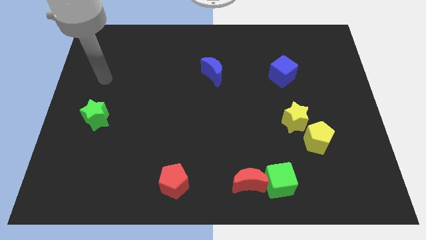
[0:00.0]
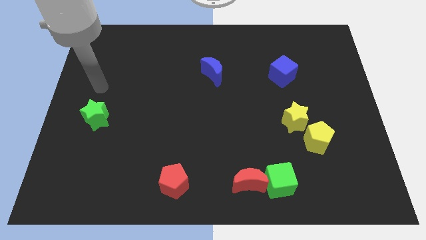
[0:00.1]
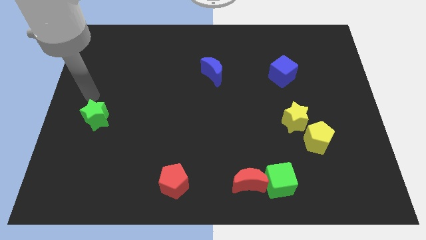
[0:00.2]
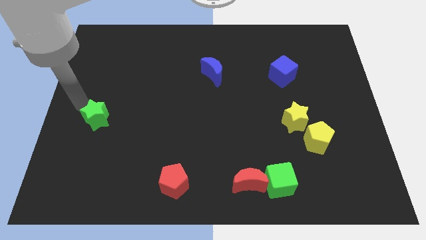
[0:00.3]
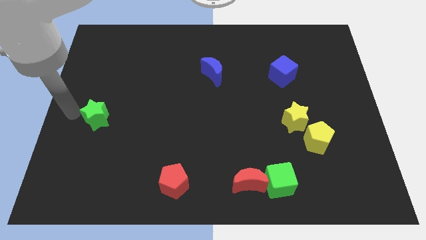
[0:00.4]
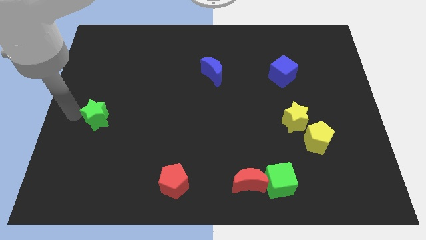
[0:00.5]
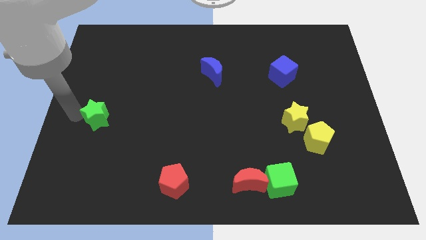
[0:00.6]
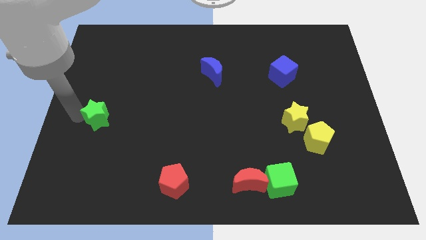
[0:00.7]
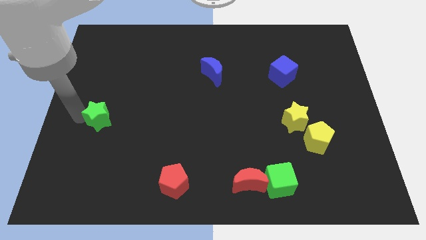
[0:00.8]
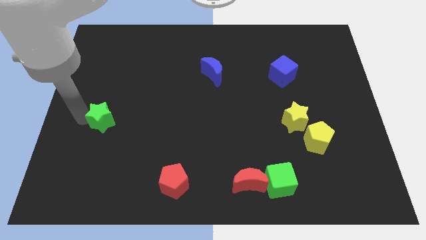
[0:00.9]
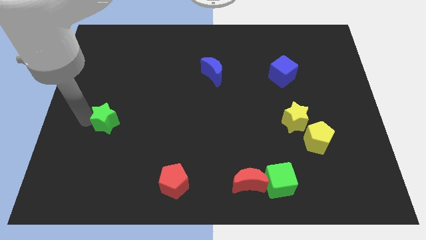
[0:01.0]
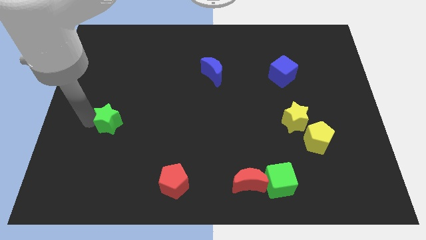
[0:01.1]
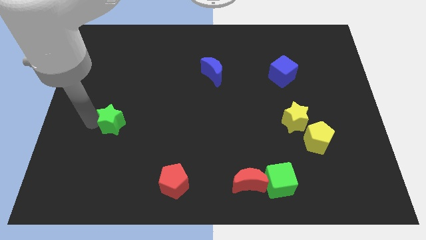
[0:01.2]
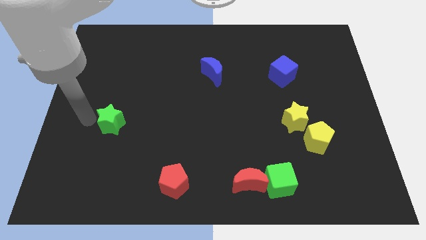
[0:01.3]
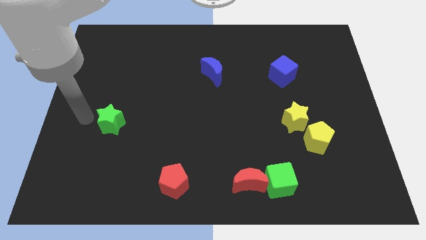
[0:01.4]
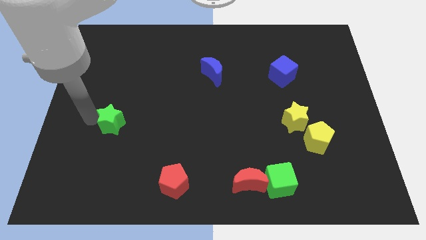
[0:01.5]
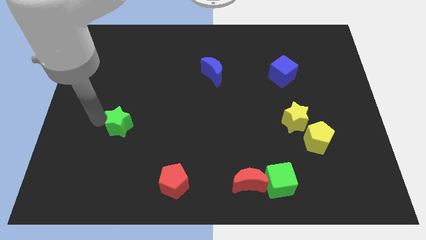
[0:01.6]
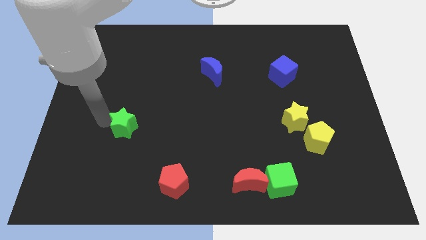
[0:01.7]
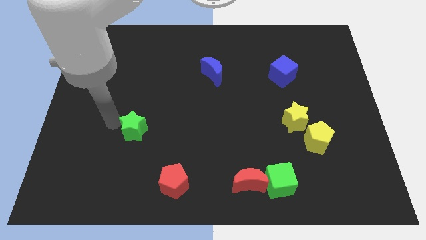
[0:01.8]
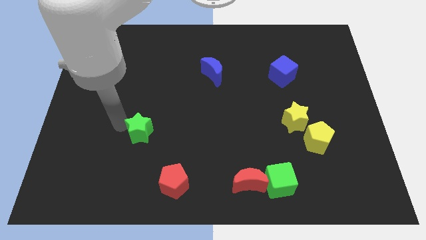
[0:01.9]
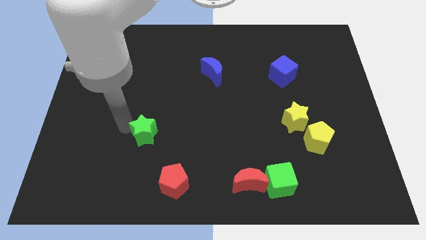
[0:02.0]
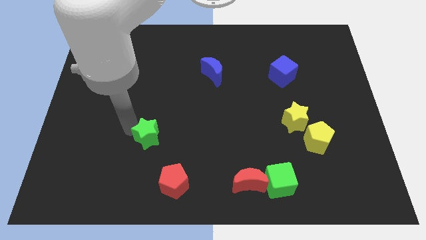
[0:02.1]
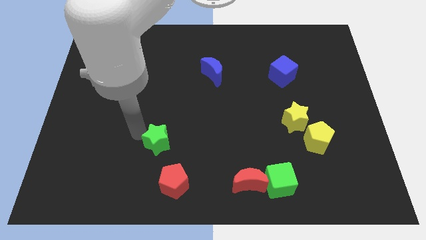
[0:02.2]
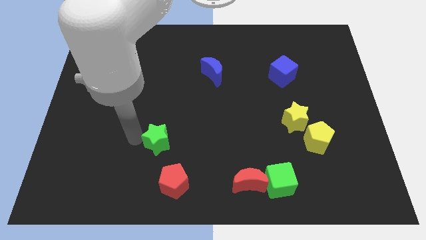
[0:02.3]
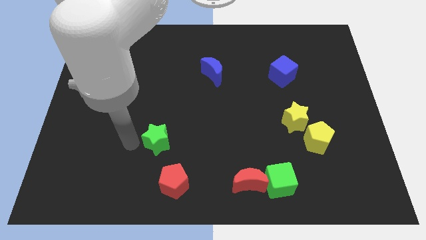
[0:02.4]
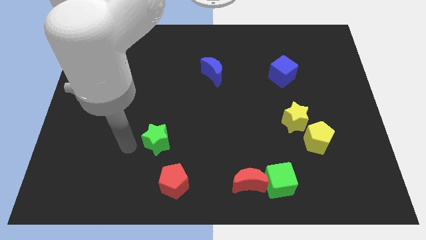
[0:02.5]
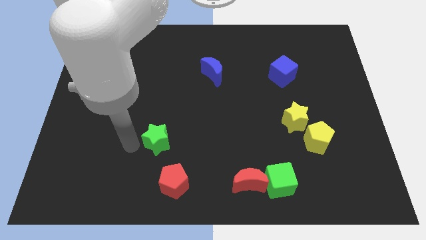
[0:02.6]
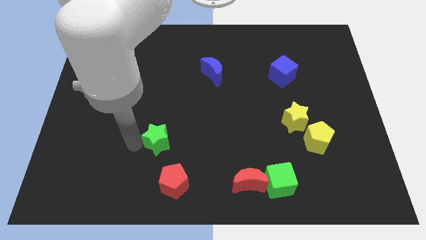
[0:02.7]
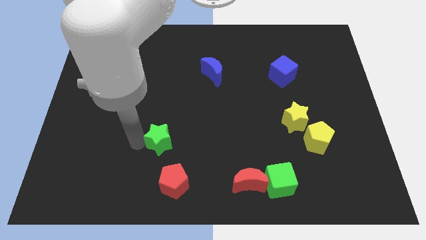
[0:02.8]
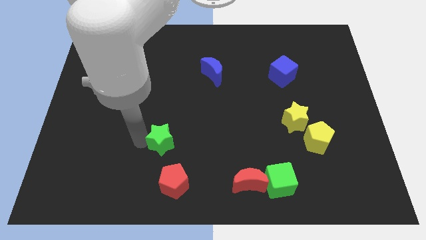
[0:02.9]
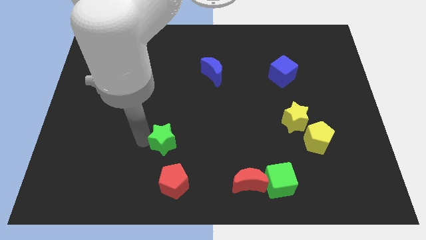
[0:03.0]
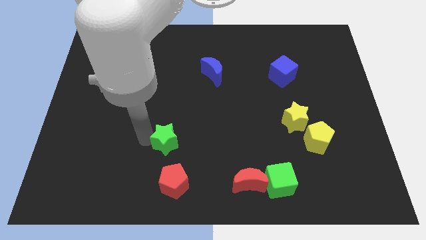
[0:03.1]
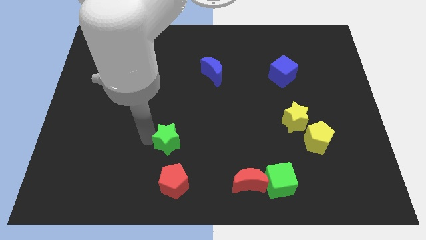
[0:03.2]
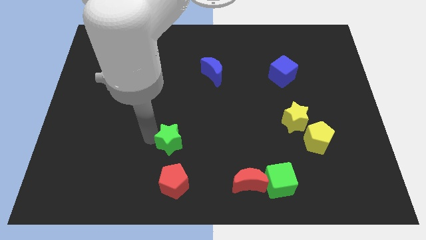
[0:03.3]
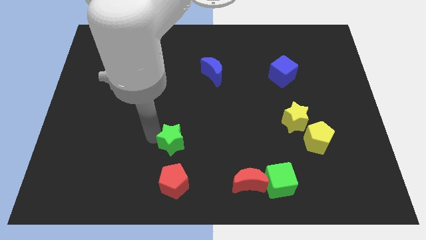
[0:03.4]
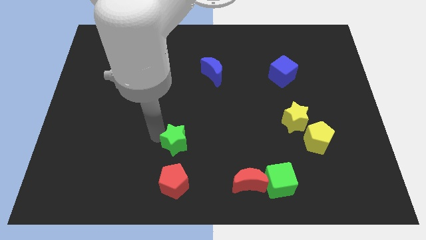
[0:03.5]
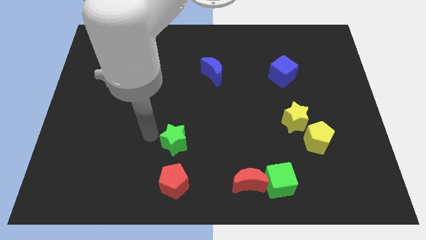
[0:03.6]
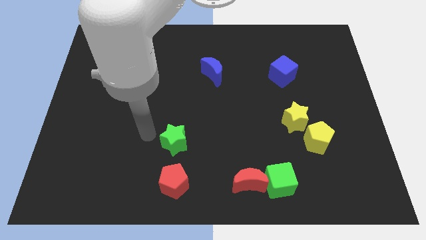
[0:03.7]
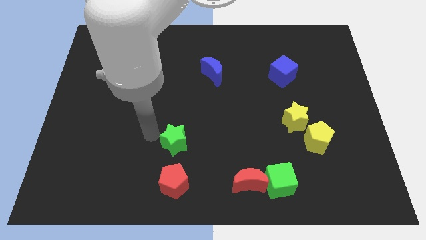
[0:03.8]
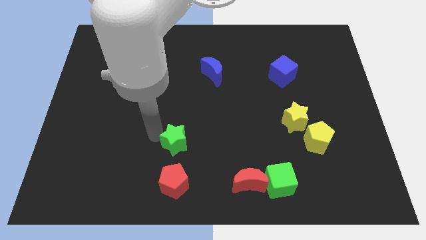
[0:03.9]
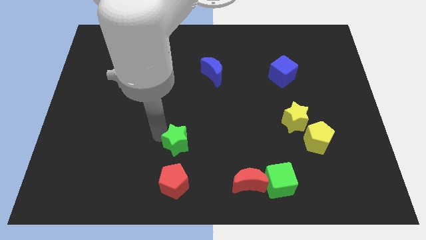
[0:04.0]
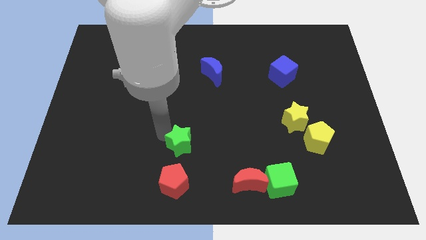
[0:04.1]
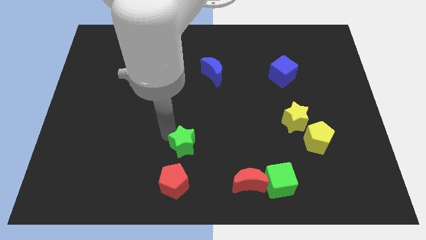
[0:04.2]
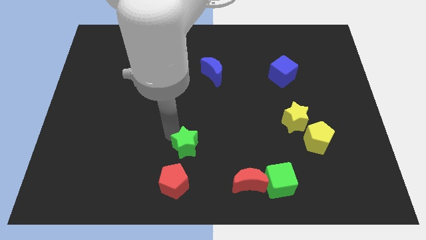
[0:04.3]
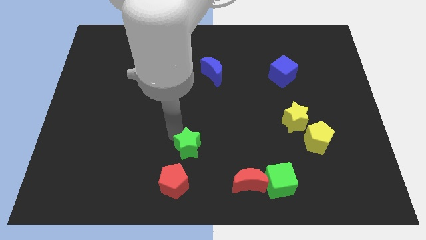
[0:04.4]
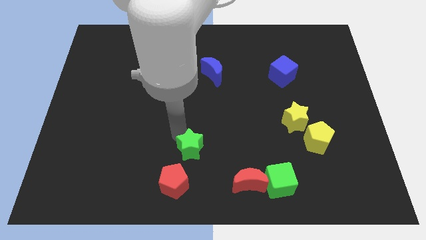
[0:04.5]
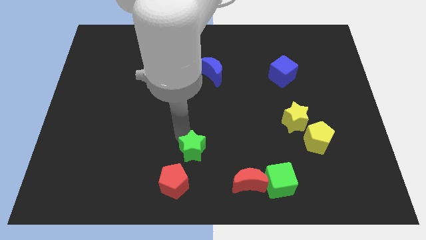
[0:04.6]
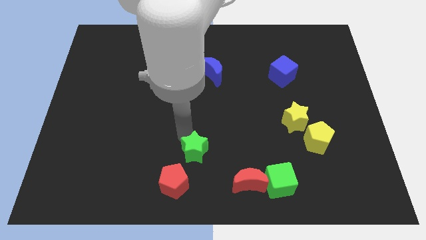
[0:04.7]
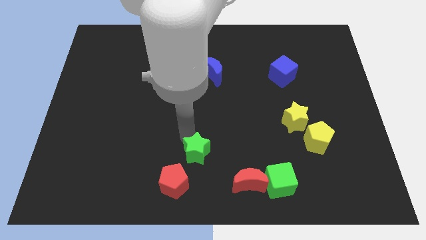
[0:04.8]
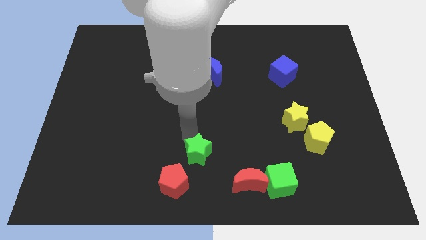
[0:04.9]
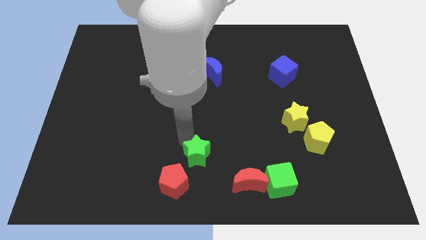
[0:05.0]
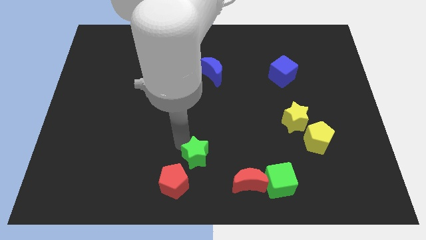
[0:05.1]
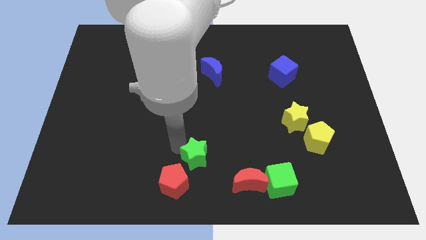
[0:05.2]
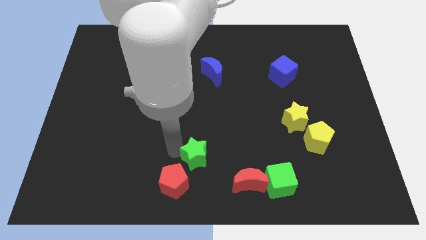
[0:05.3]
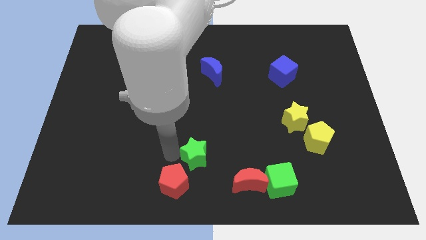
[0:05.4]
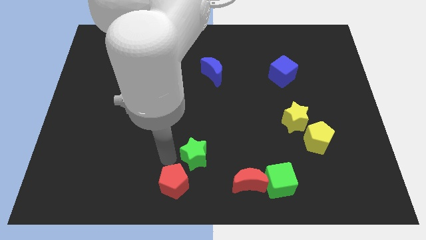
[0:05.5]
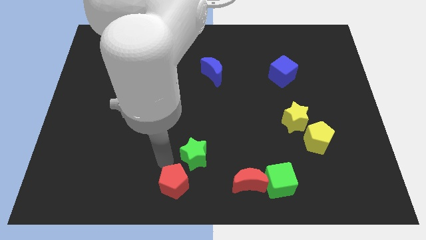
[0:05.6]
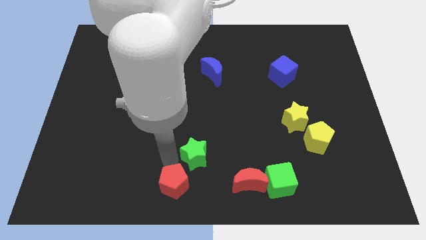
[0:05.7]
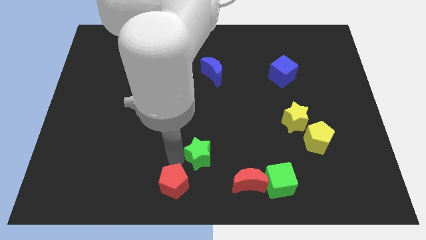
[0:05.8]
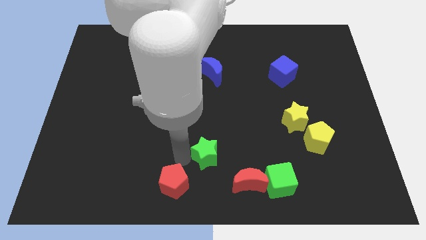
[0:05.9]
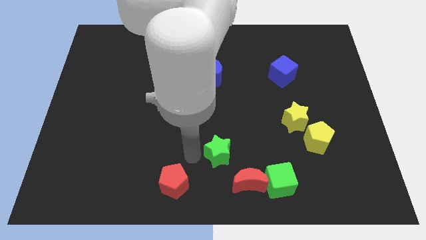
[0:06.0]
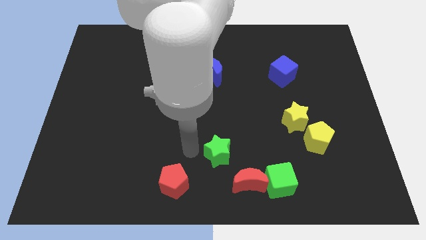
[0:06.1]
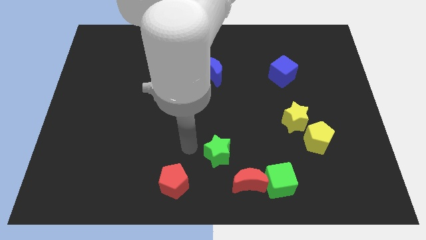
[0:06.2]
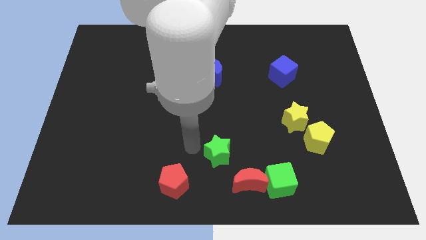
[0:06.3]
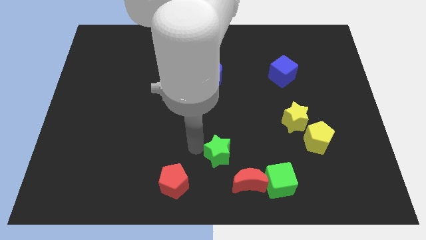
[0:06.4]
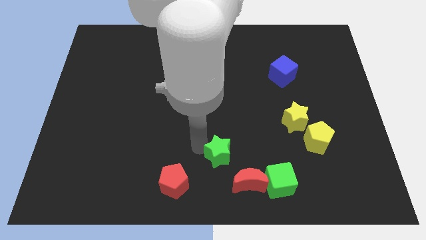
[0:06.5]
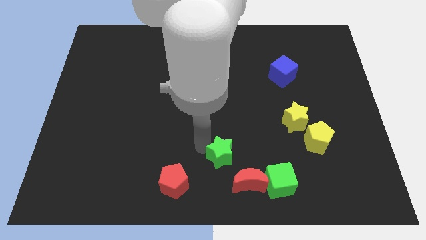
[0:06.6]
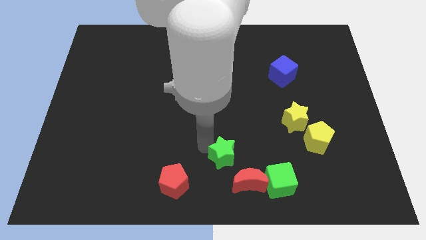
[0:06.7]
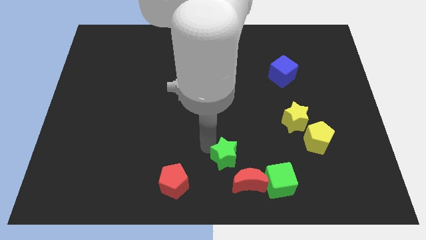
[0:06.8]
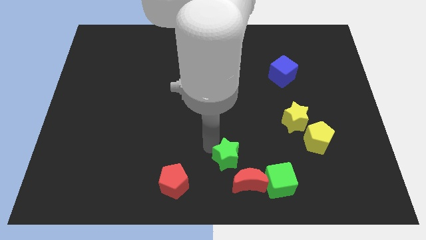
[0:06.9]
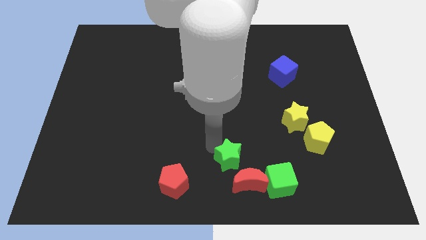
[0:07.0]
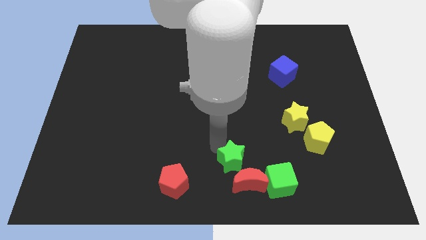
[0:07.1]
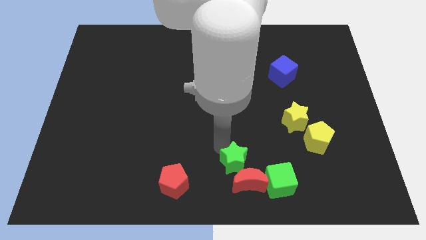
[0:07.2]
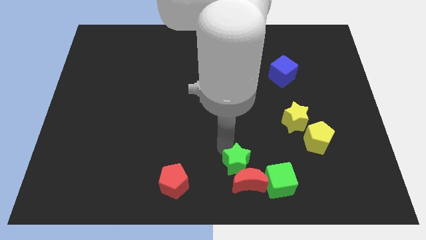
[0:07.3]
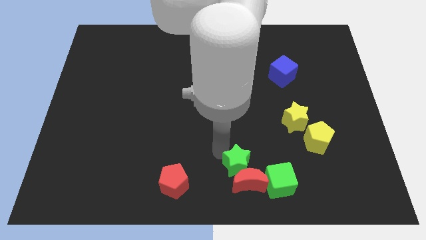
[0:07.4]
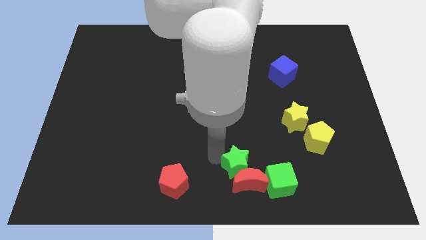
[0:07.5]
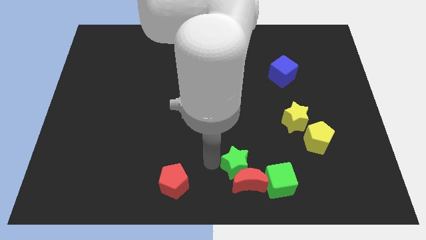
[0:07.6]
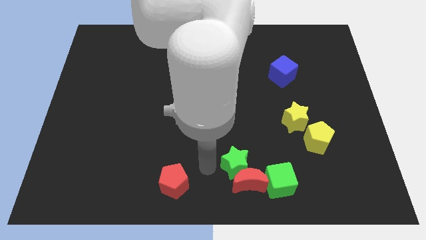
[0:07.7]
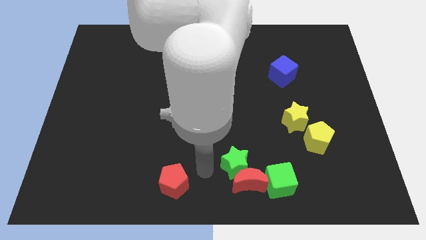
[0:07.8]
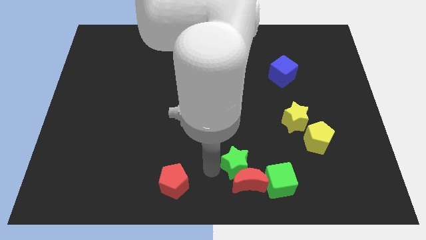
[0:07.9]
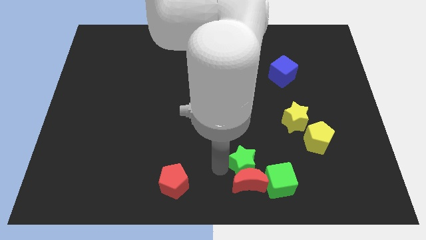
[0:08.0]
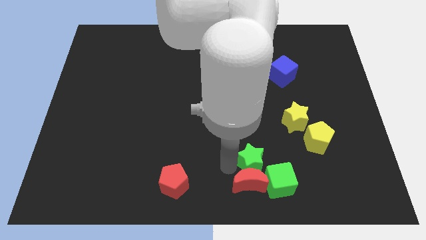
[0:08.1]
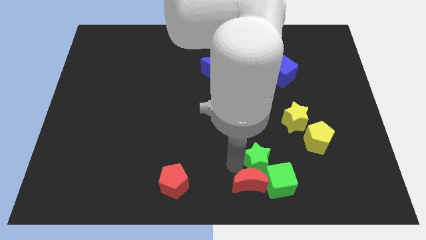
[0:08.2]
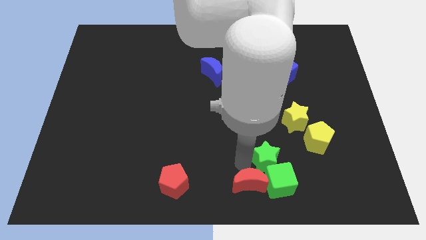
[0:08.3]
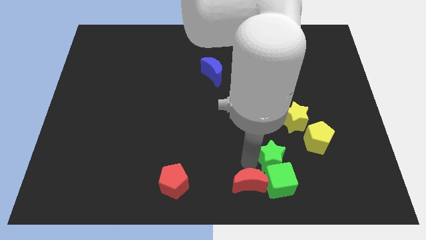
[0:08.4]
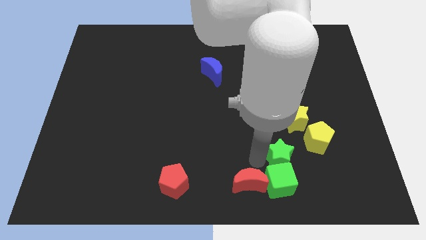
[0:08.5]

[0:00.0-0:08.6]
put the green star to the bottom of the yellow star
